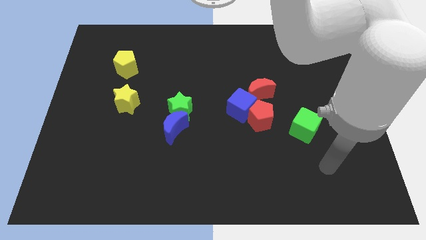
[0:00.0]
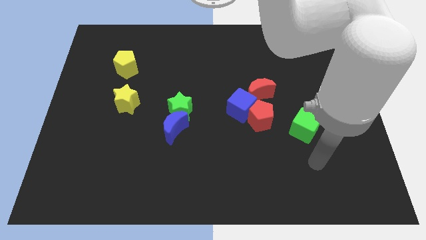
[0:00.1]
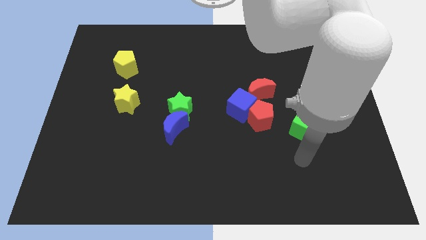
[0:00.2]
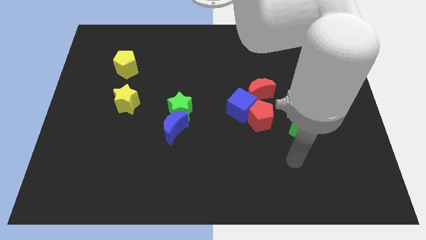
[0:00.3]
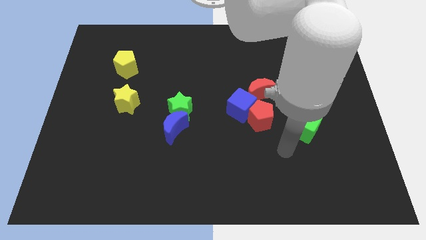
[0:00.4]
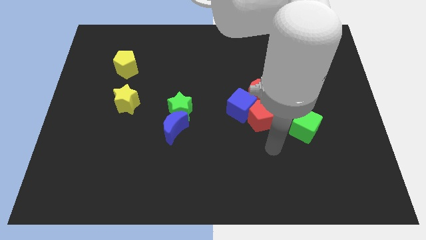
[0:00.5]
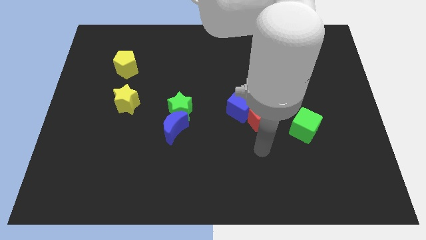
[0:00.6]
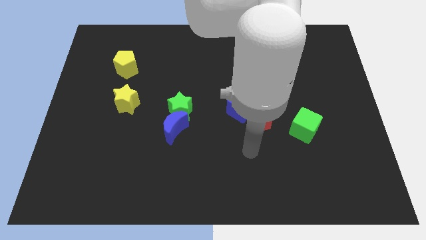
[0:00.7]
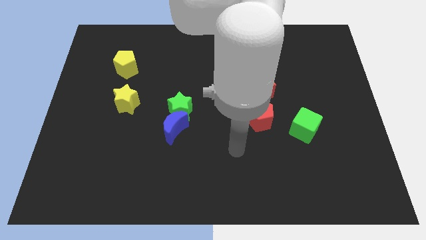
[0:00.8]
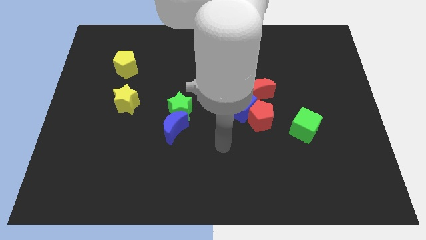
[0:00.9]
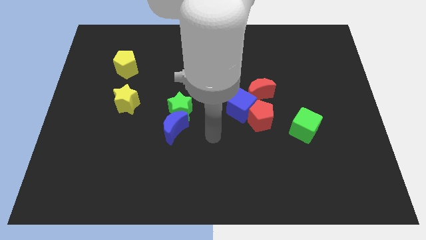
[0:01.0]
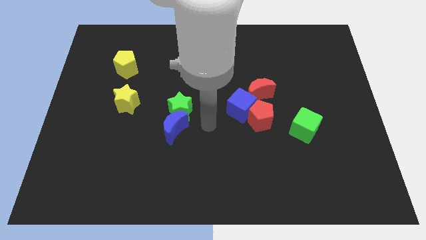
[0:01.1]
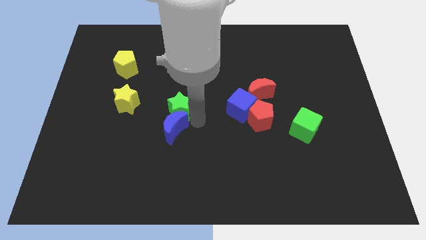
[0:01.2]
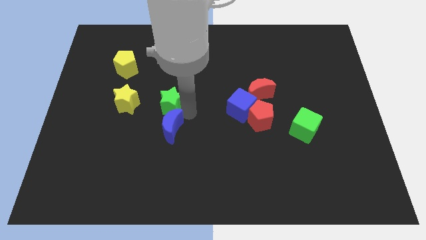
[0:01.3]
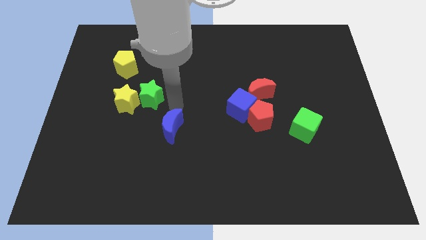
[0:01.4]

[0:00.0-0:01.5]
separate the blue moon from the green star

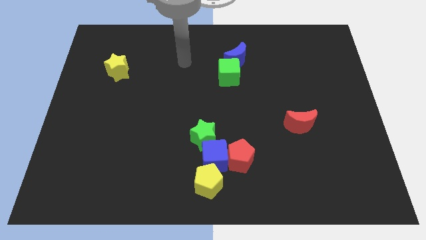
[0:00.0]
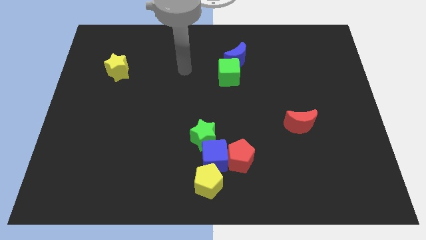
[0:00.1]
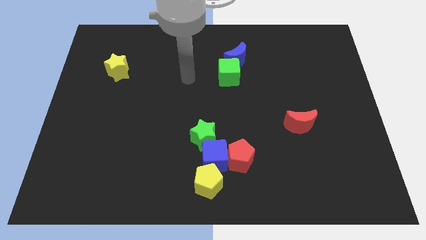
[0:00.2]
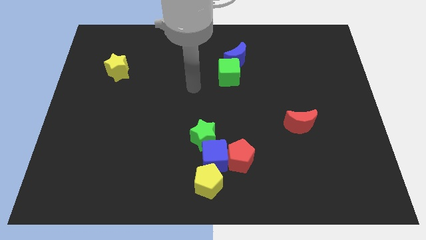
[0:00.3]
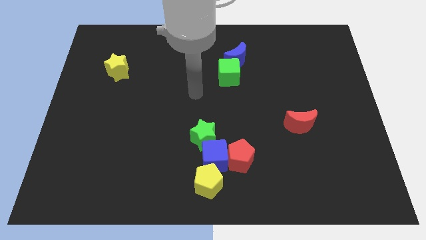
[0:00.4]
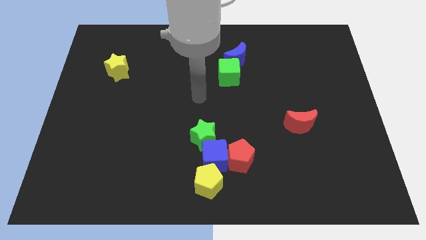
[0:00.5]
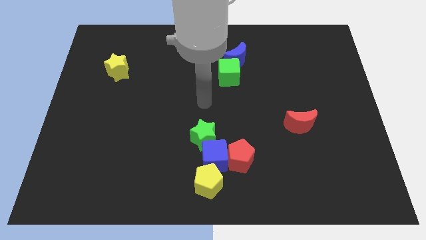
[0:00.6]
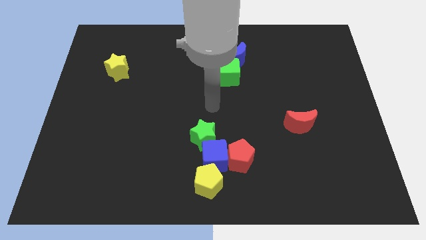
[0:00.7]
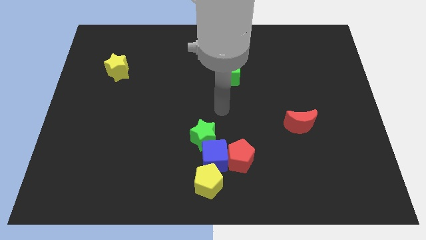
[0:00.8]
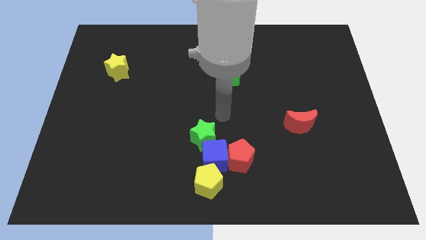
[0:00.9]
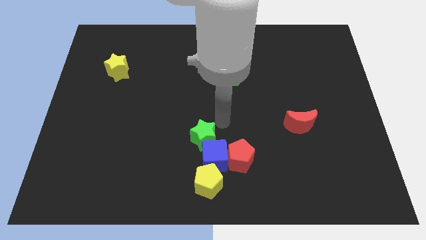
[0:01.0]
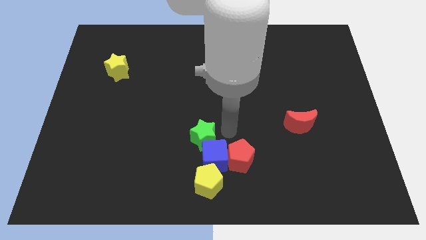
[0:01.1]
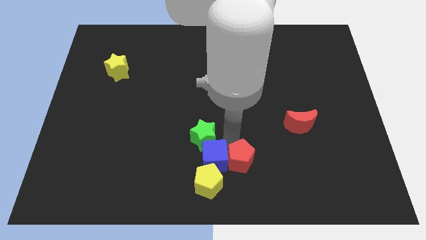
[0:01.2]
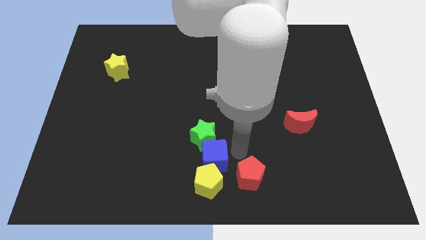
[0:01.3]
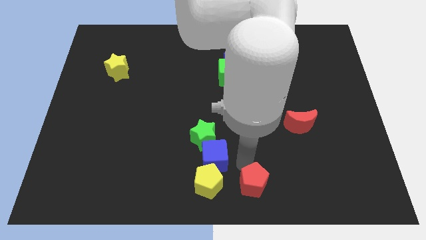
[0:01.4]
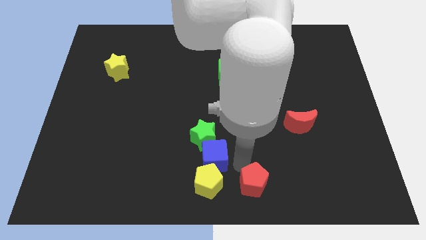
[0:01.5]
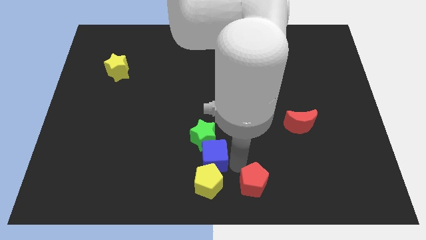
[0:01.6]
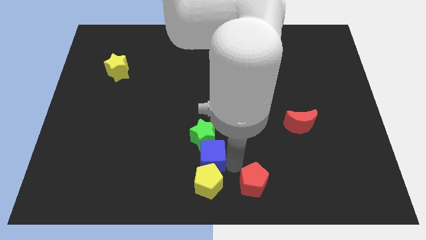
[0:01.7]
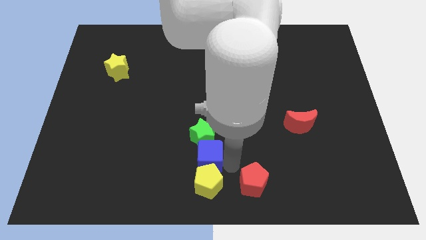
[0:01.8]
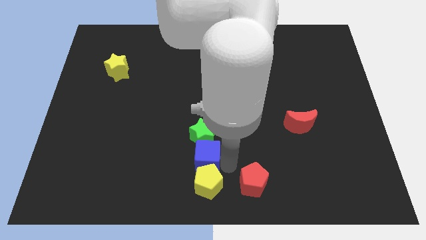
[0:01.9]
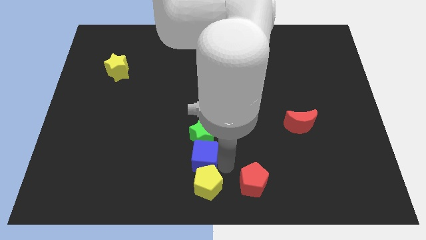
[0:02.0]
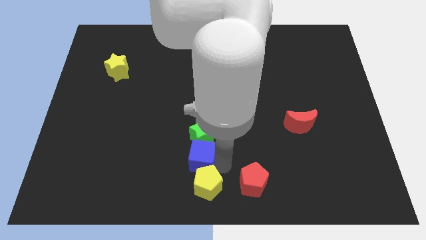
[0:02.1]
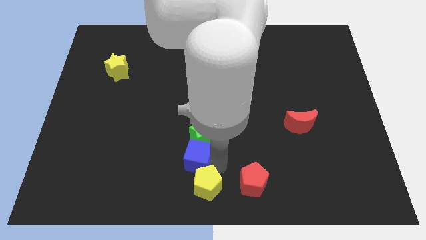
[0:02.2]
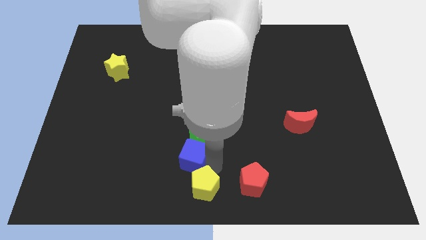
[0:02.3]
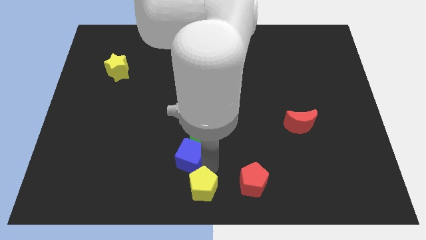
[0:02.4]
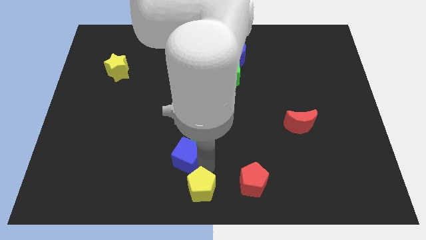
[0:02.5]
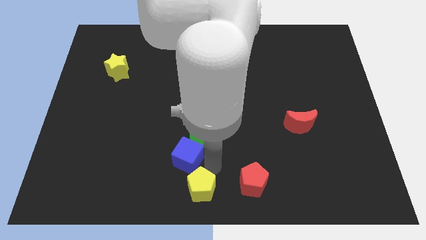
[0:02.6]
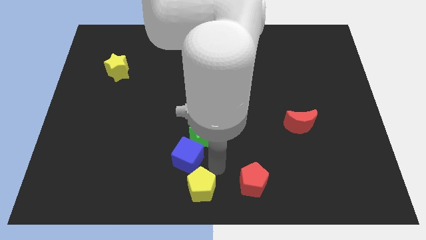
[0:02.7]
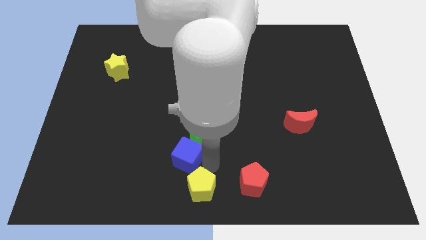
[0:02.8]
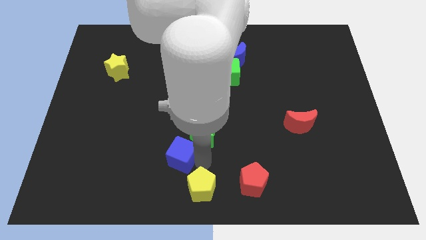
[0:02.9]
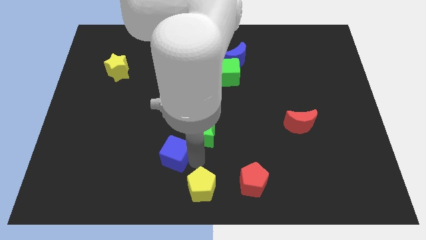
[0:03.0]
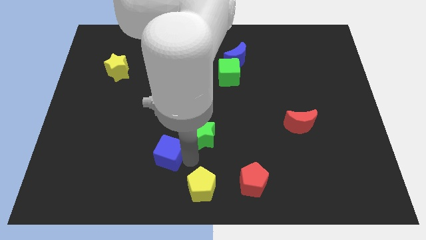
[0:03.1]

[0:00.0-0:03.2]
move the blue cube away from the group

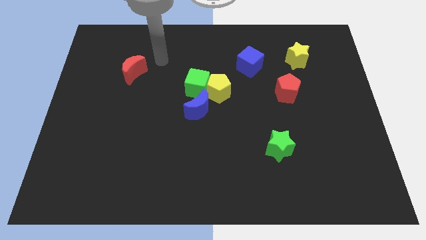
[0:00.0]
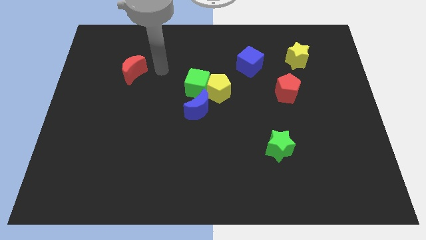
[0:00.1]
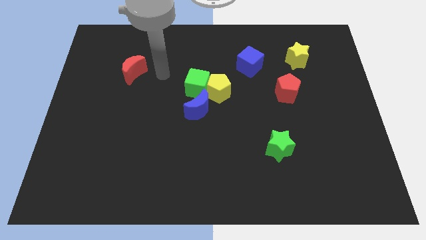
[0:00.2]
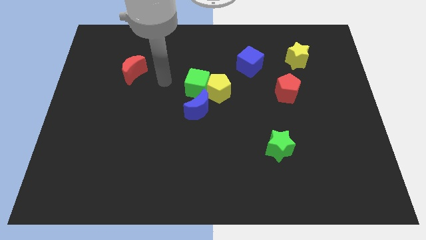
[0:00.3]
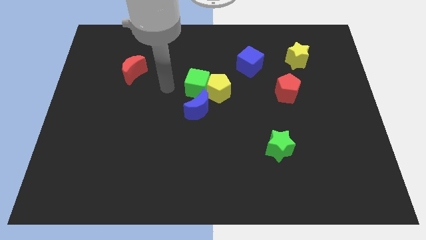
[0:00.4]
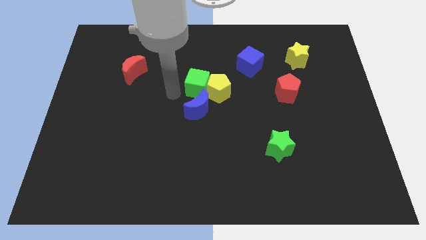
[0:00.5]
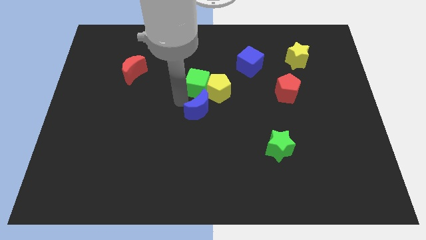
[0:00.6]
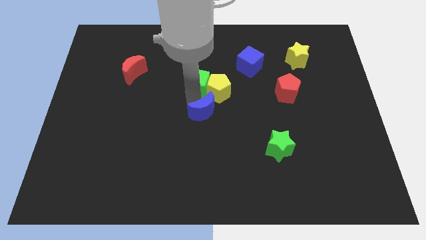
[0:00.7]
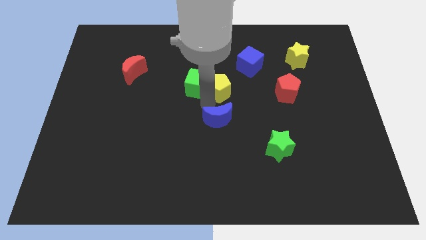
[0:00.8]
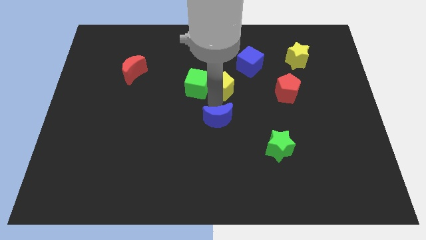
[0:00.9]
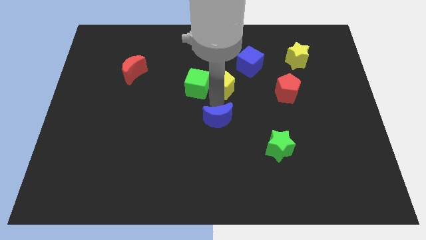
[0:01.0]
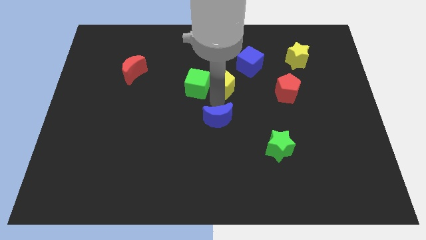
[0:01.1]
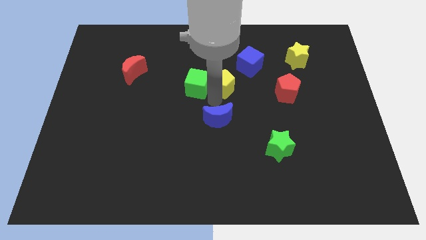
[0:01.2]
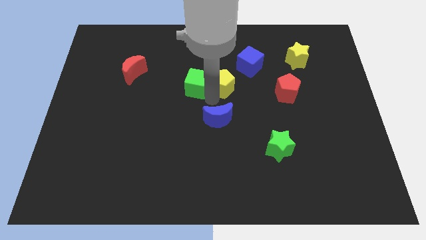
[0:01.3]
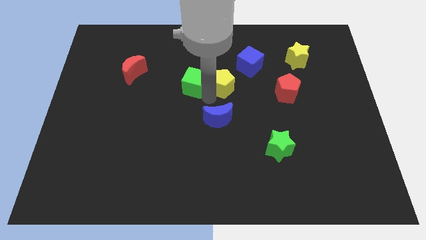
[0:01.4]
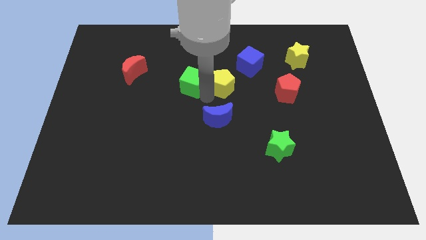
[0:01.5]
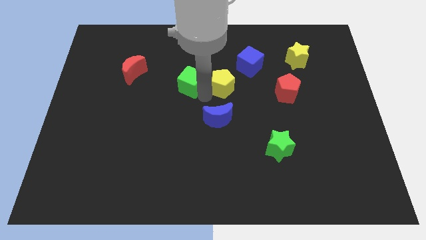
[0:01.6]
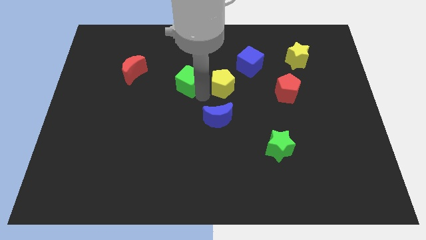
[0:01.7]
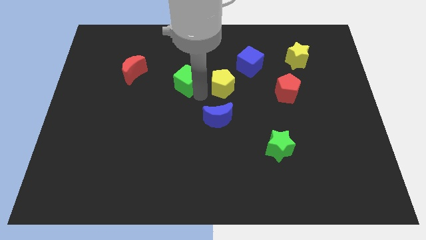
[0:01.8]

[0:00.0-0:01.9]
move the green cube away from the yellow pentagon and blue moon

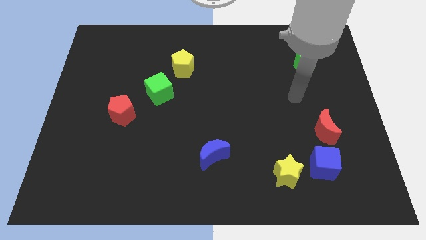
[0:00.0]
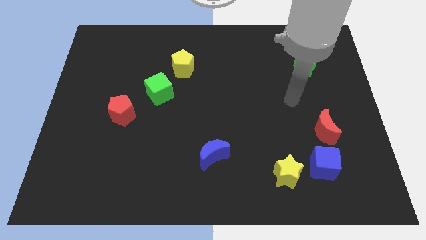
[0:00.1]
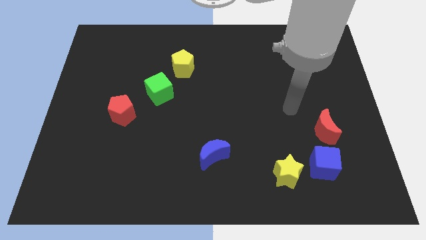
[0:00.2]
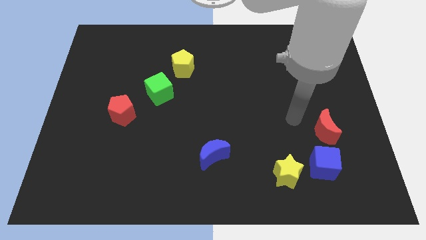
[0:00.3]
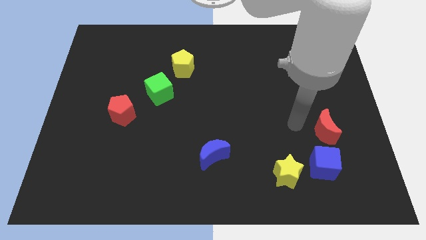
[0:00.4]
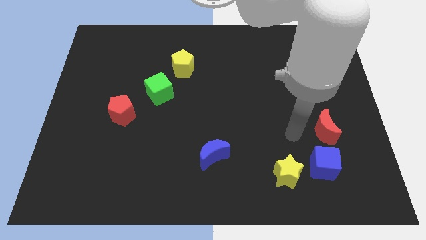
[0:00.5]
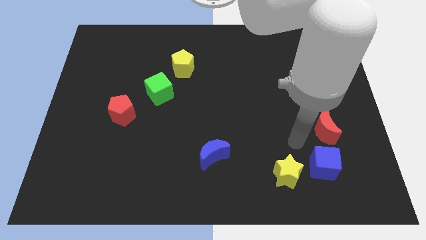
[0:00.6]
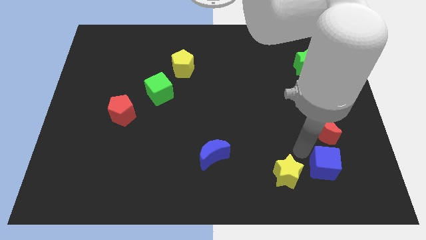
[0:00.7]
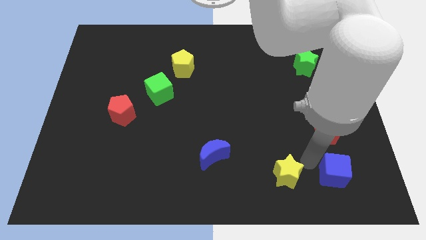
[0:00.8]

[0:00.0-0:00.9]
move the yellow star away from the blue cube

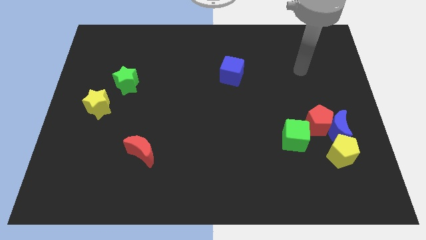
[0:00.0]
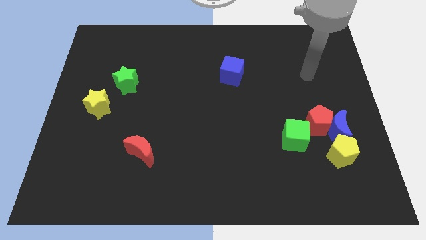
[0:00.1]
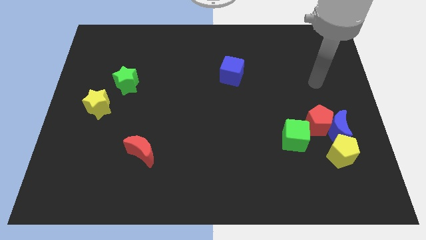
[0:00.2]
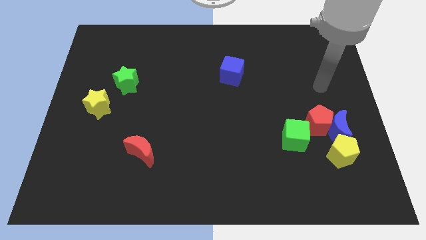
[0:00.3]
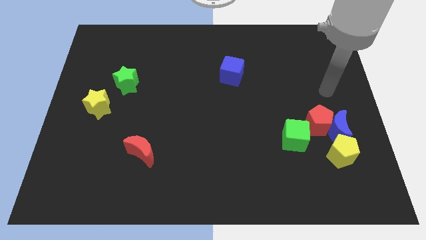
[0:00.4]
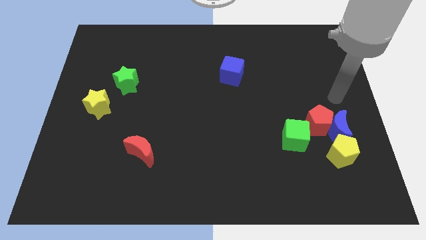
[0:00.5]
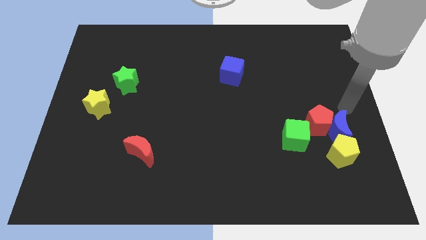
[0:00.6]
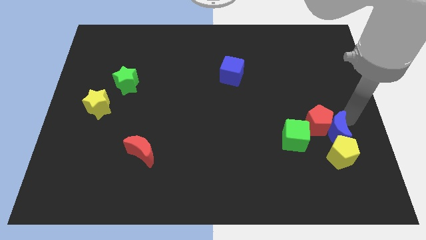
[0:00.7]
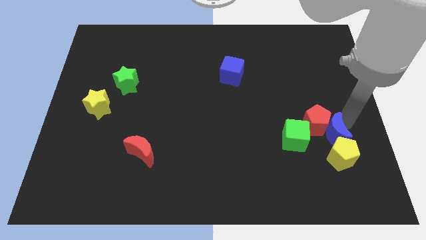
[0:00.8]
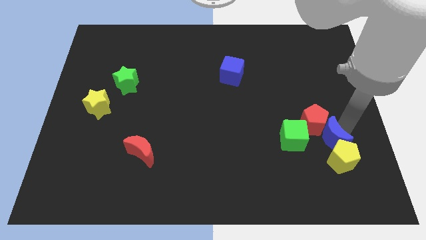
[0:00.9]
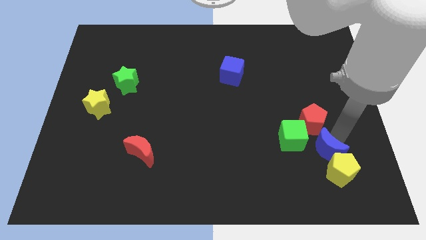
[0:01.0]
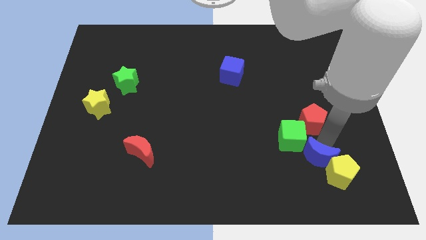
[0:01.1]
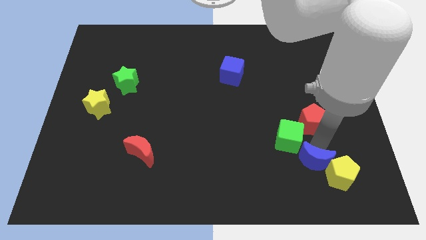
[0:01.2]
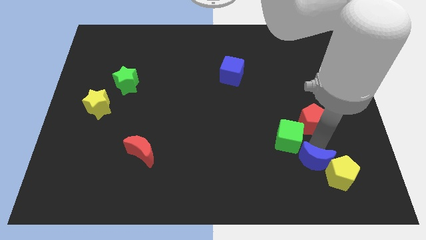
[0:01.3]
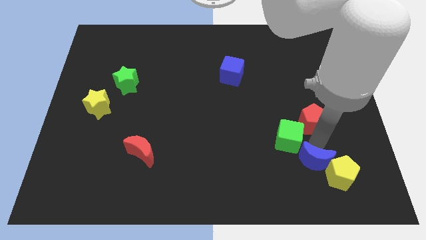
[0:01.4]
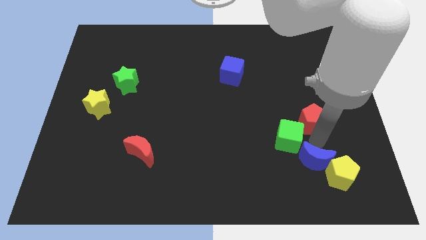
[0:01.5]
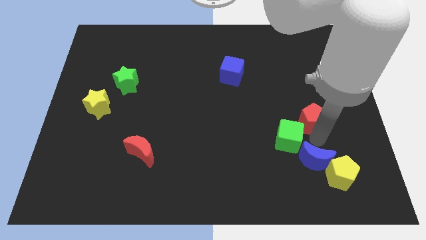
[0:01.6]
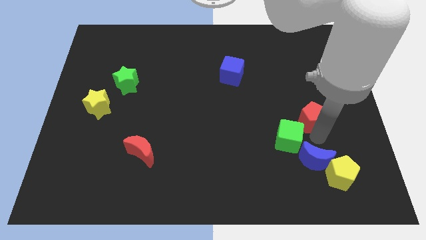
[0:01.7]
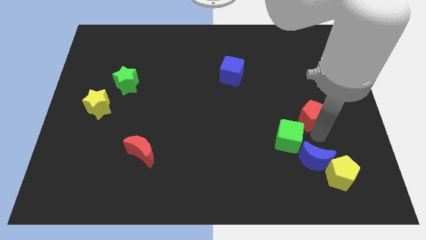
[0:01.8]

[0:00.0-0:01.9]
move the red pentagon away from the blue moon, green cube, and yellow pentagon
